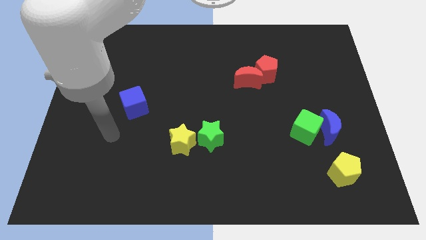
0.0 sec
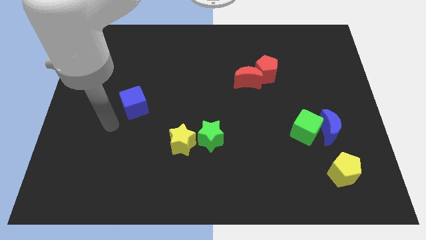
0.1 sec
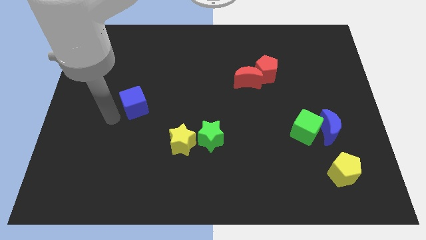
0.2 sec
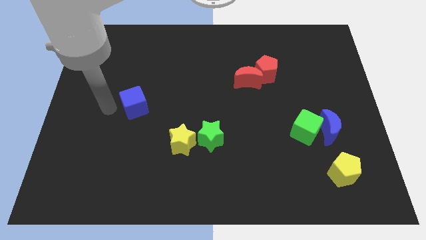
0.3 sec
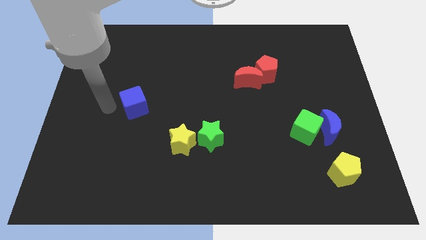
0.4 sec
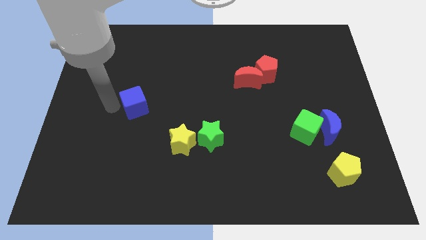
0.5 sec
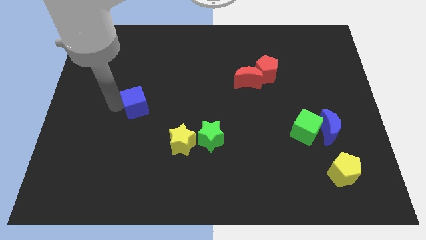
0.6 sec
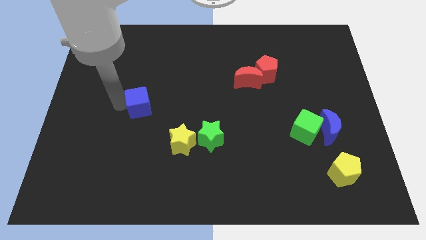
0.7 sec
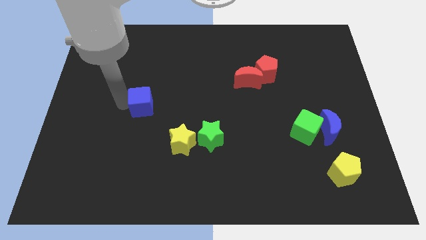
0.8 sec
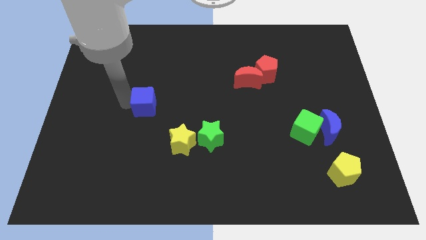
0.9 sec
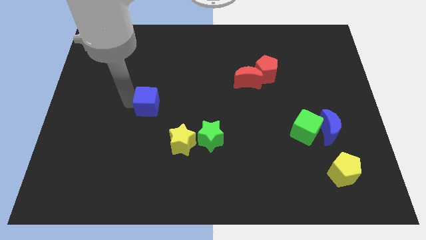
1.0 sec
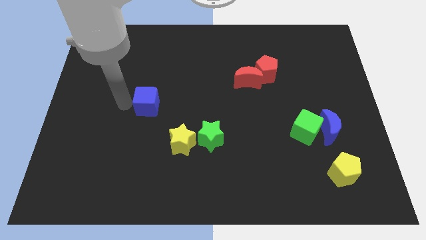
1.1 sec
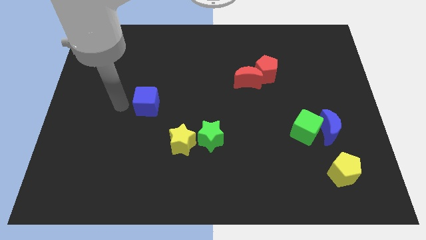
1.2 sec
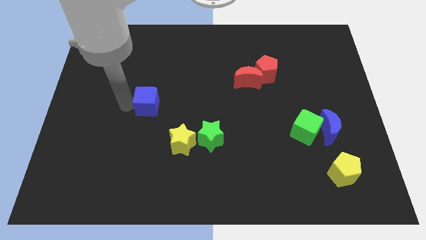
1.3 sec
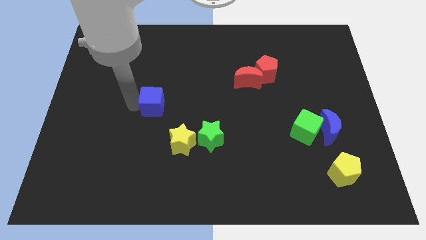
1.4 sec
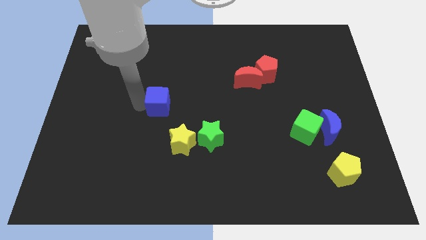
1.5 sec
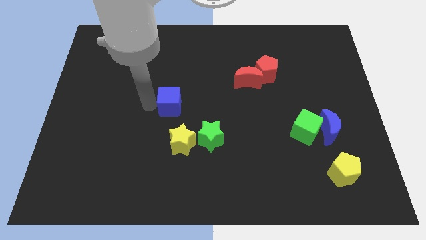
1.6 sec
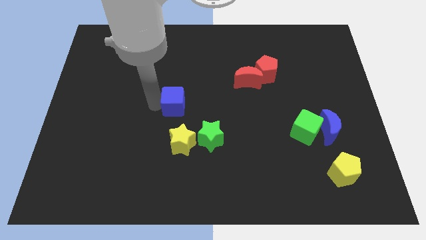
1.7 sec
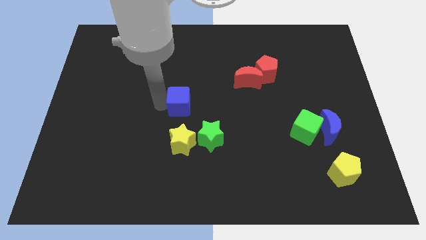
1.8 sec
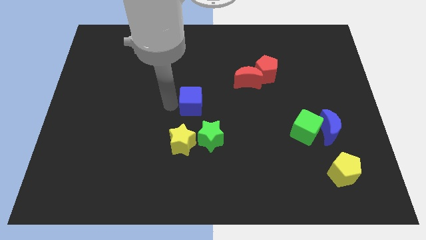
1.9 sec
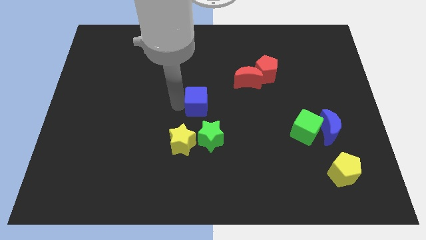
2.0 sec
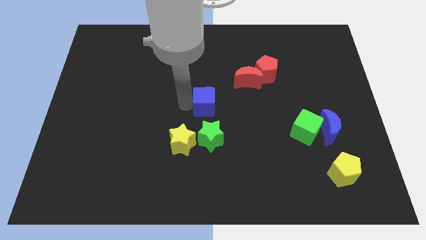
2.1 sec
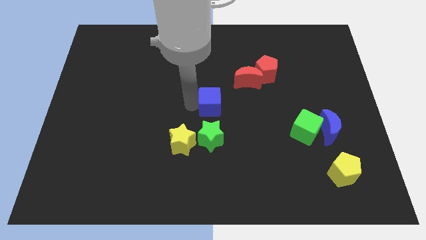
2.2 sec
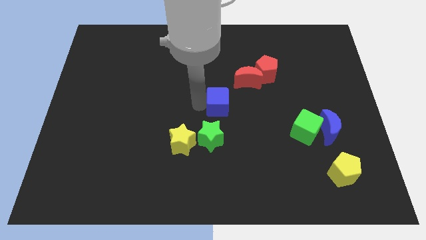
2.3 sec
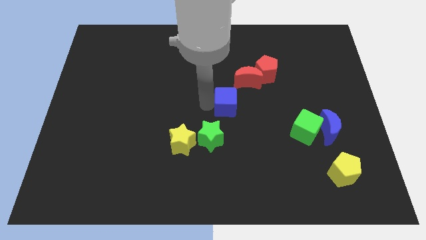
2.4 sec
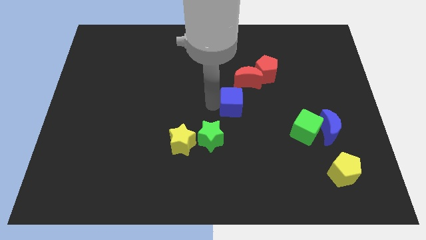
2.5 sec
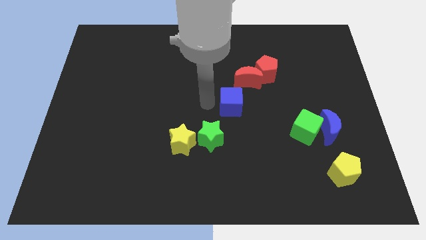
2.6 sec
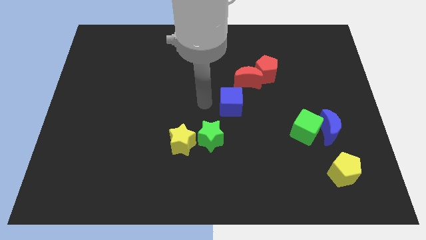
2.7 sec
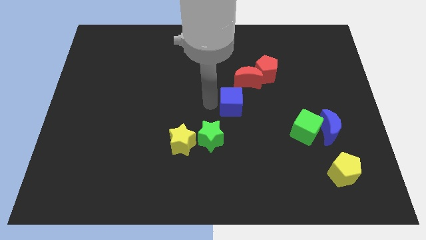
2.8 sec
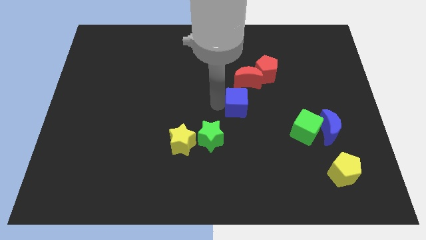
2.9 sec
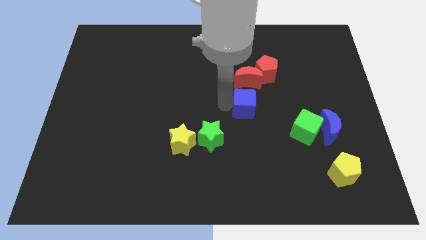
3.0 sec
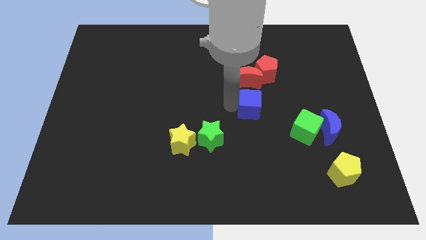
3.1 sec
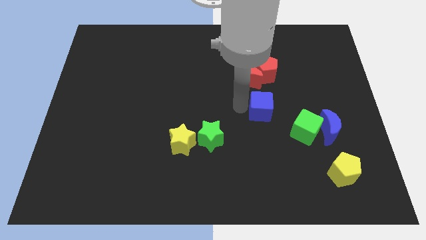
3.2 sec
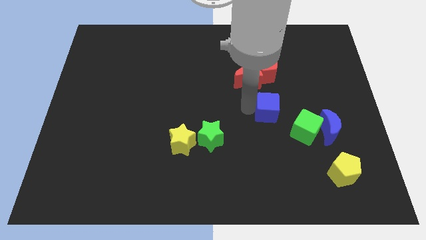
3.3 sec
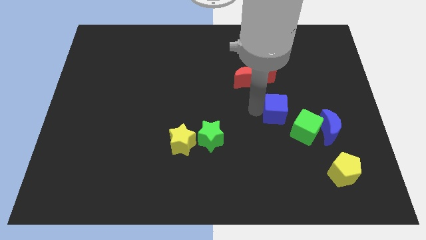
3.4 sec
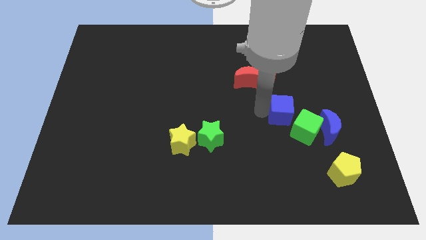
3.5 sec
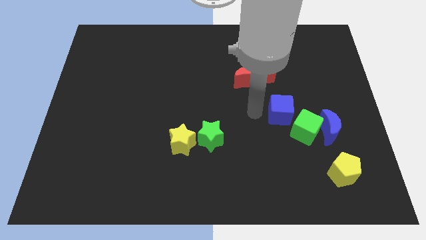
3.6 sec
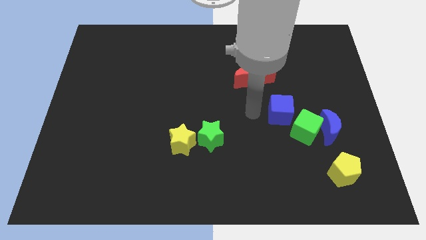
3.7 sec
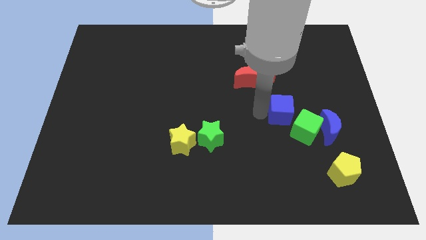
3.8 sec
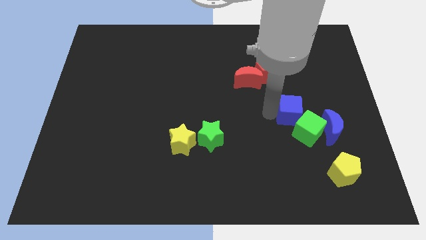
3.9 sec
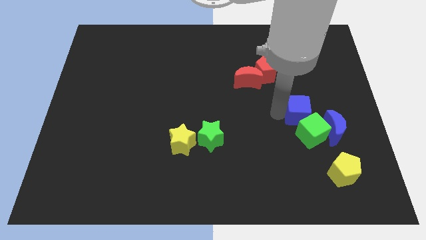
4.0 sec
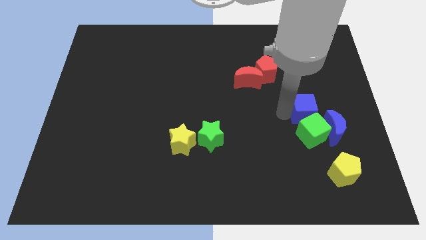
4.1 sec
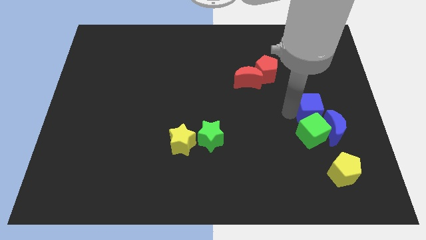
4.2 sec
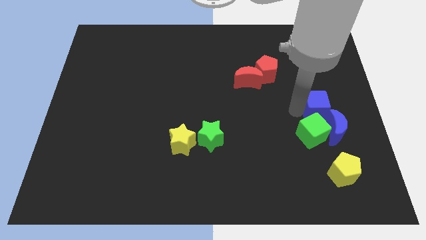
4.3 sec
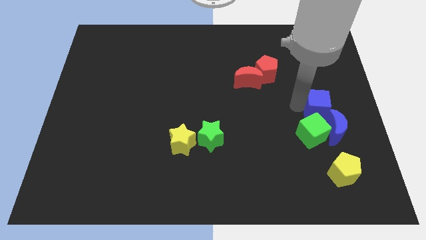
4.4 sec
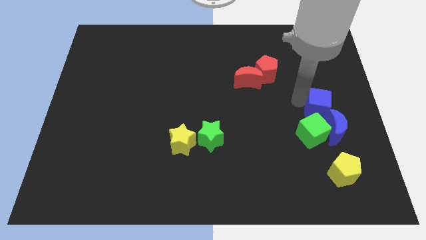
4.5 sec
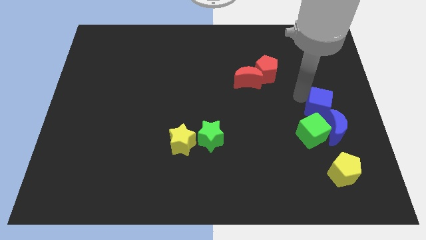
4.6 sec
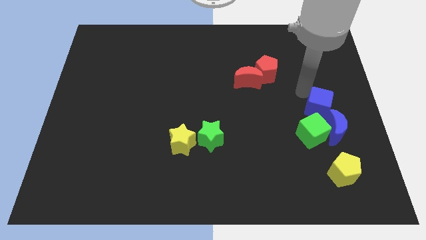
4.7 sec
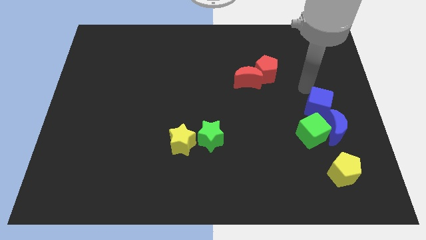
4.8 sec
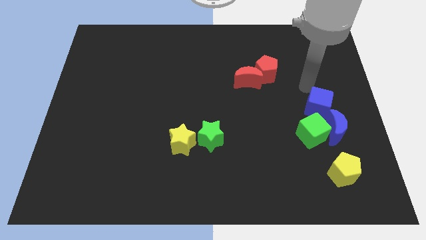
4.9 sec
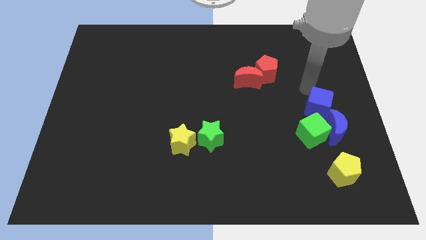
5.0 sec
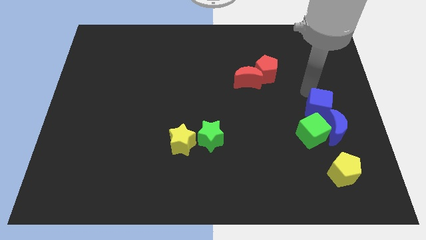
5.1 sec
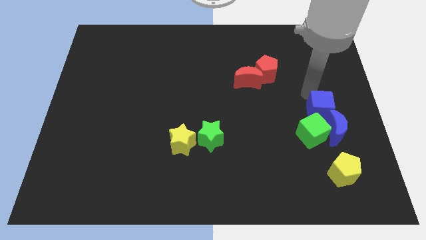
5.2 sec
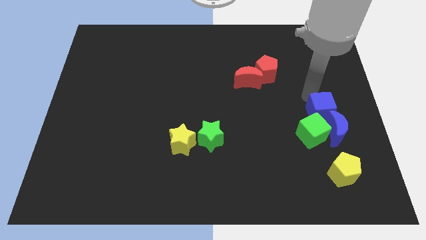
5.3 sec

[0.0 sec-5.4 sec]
push the blue cube above the yellow pentagon

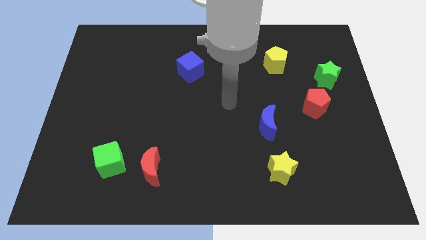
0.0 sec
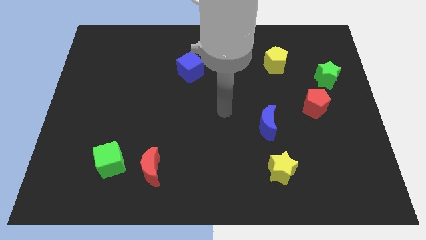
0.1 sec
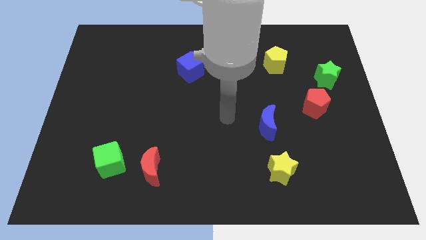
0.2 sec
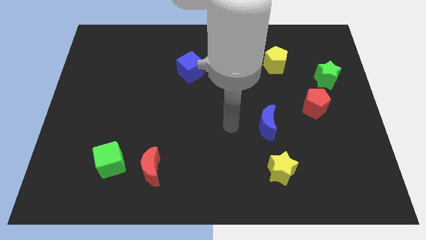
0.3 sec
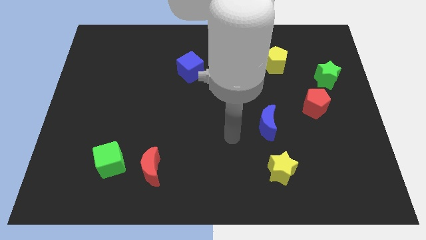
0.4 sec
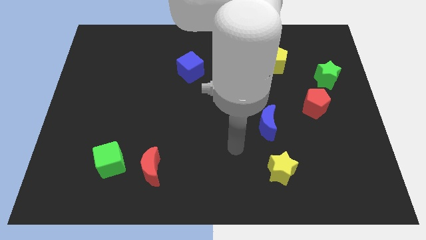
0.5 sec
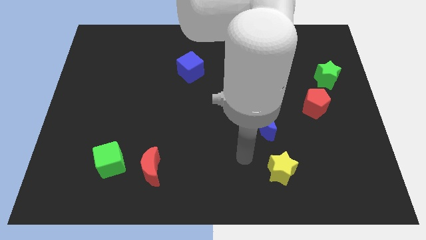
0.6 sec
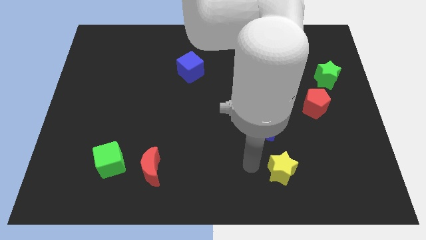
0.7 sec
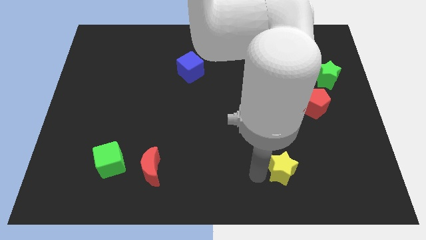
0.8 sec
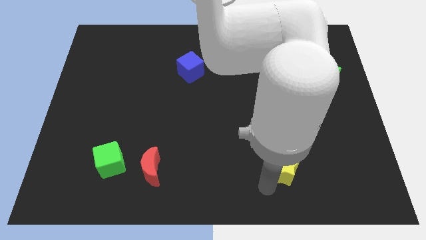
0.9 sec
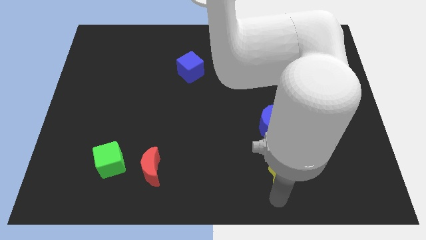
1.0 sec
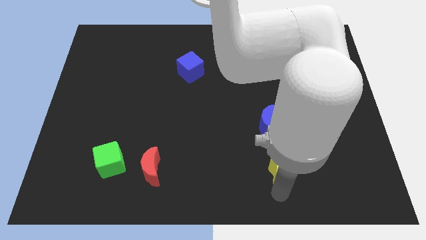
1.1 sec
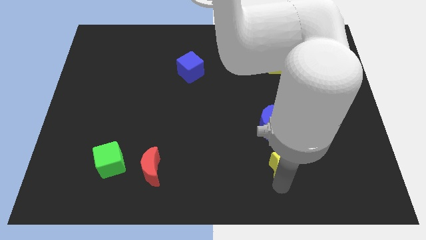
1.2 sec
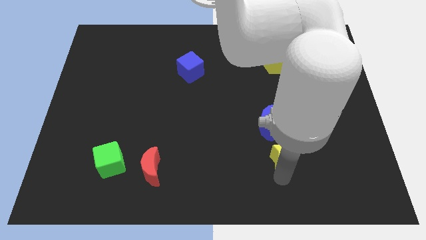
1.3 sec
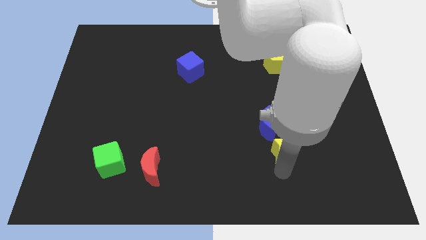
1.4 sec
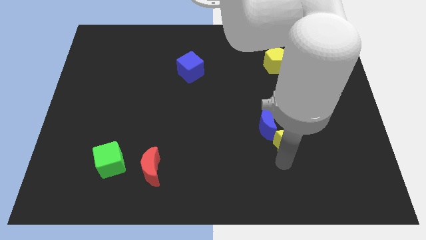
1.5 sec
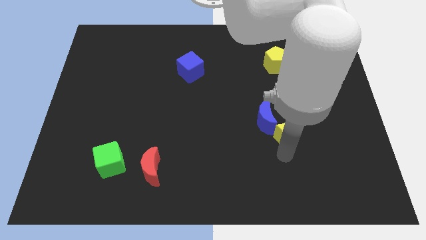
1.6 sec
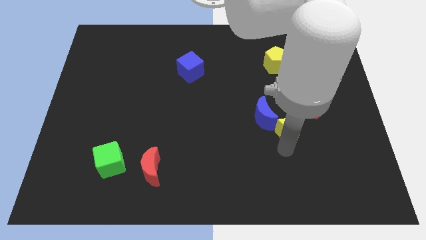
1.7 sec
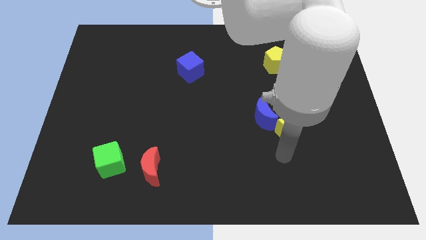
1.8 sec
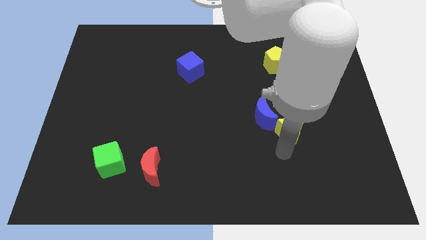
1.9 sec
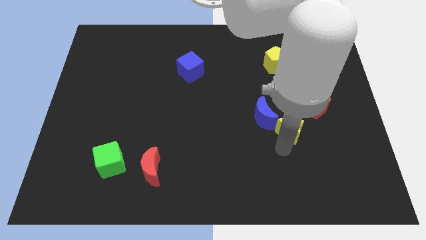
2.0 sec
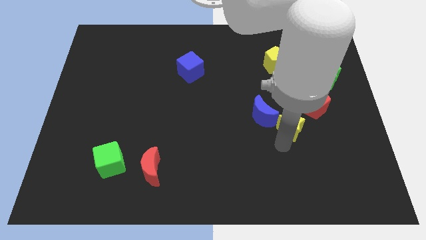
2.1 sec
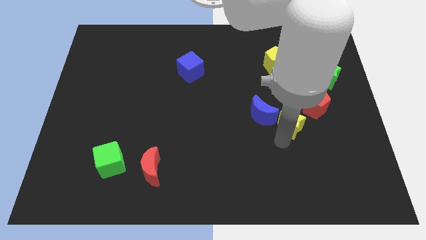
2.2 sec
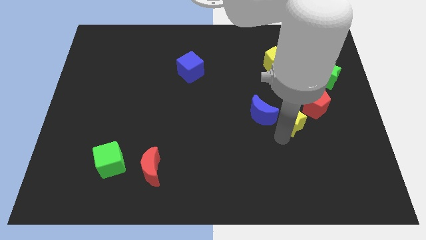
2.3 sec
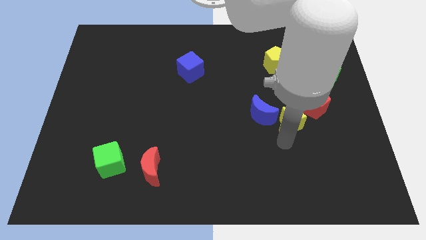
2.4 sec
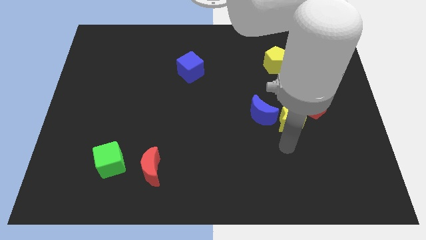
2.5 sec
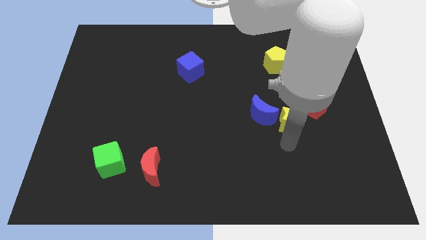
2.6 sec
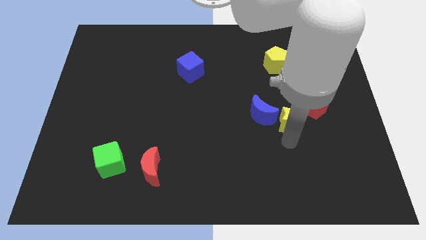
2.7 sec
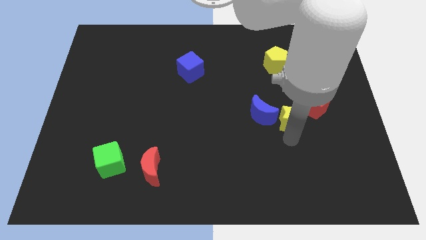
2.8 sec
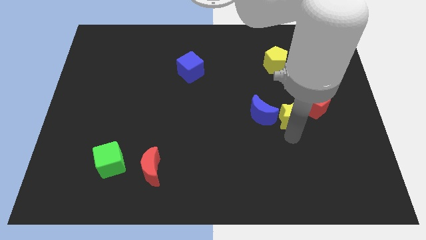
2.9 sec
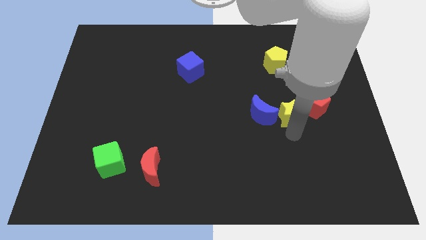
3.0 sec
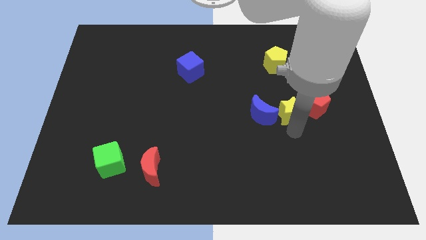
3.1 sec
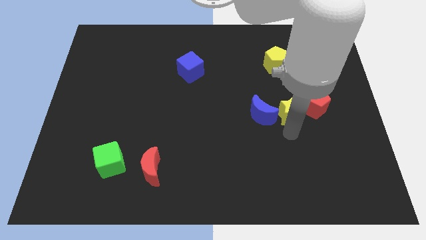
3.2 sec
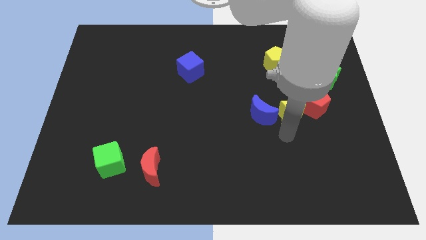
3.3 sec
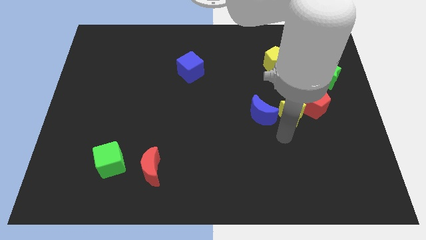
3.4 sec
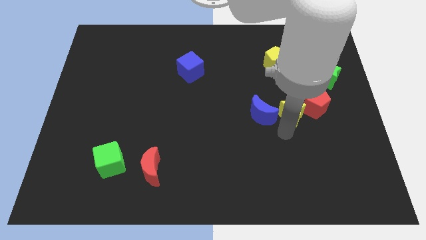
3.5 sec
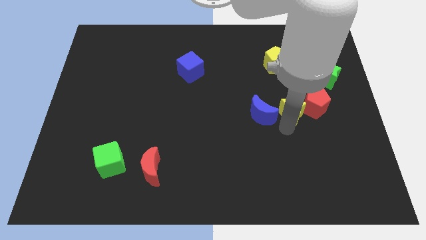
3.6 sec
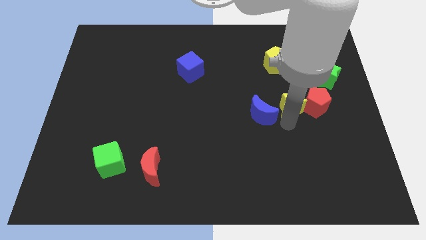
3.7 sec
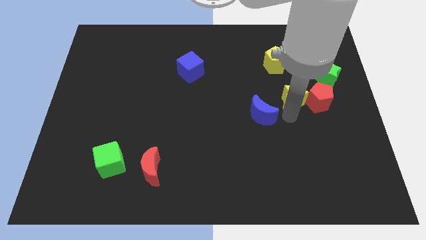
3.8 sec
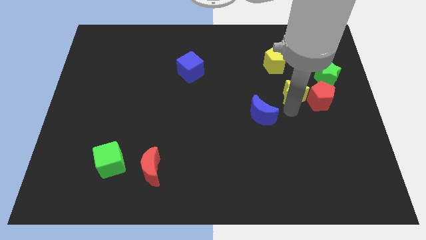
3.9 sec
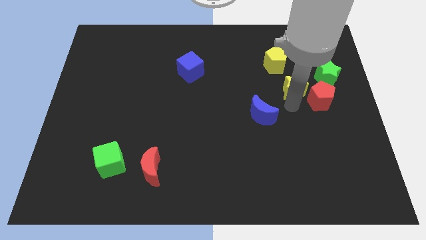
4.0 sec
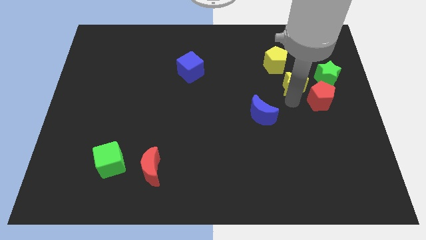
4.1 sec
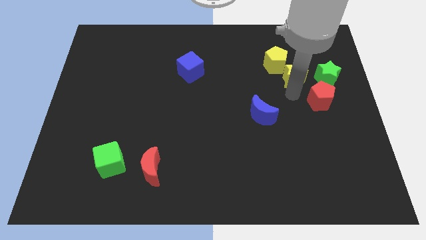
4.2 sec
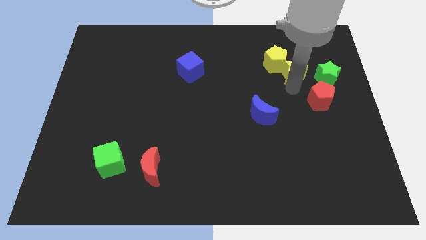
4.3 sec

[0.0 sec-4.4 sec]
put the yellow star to the top left of the green star
